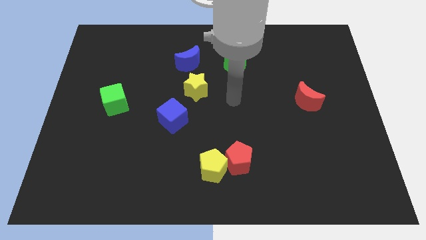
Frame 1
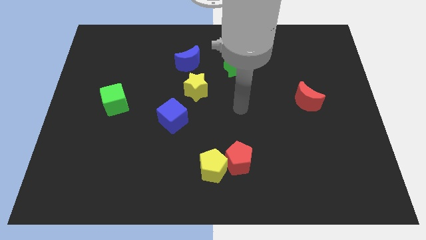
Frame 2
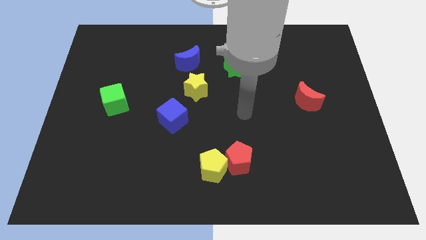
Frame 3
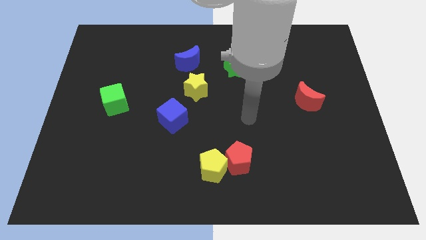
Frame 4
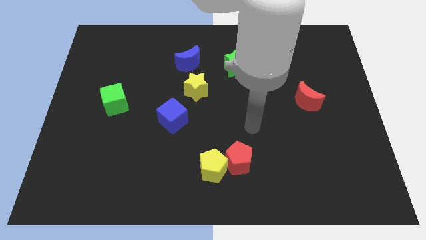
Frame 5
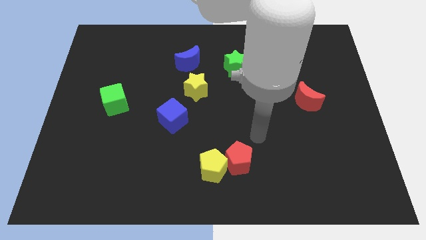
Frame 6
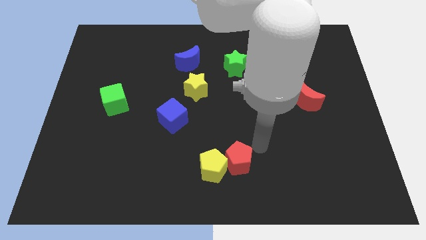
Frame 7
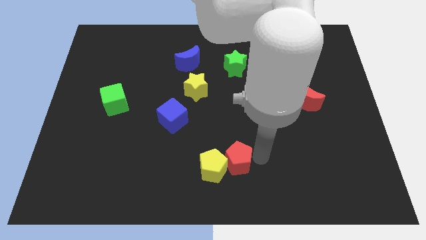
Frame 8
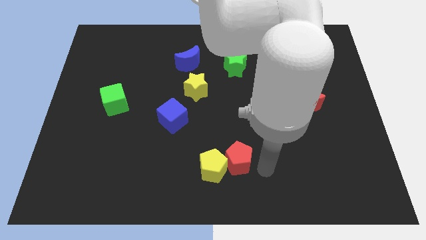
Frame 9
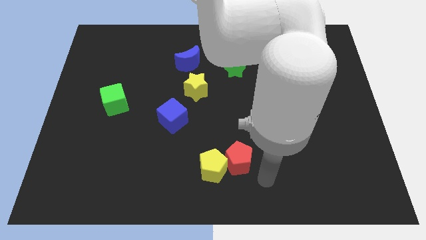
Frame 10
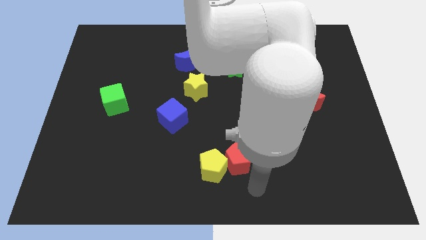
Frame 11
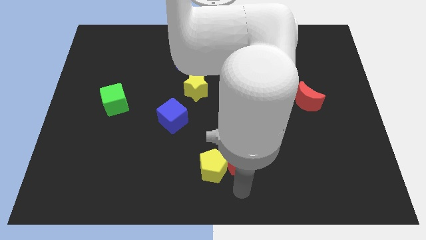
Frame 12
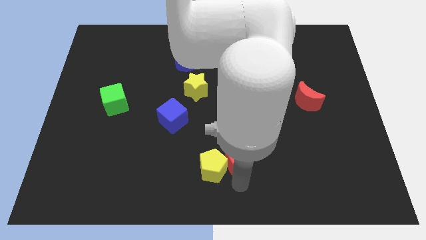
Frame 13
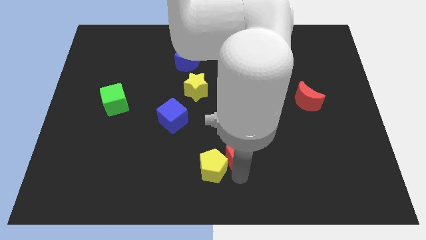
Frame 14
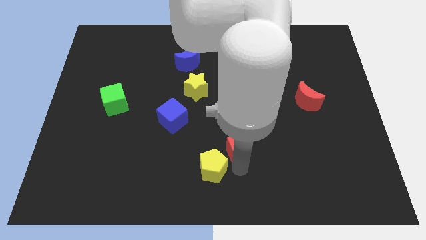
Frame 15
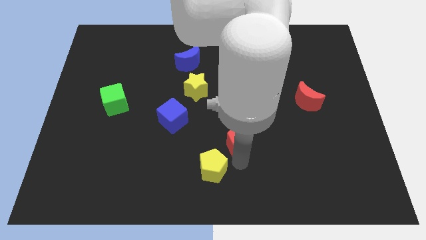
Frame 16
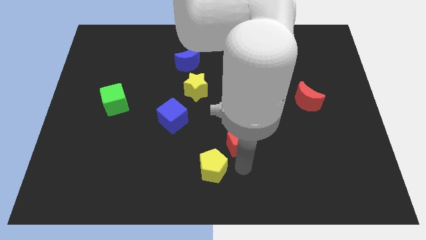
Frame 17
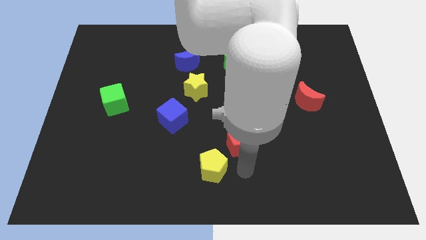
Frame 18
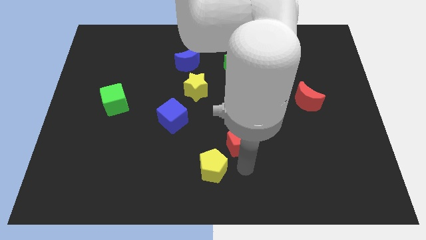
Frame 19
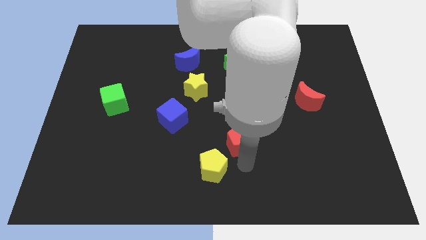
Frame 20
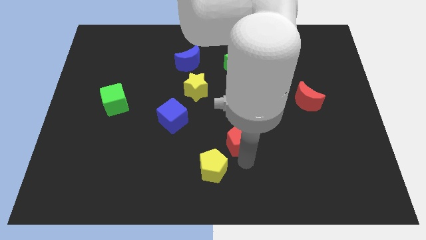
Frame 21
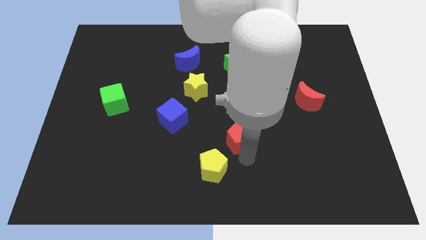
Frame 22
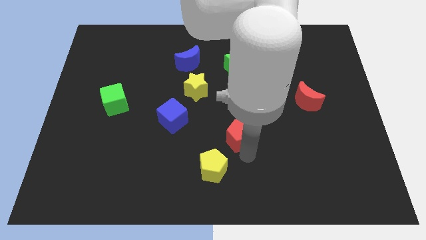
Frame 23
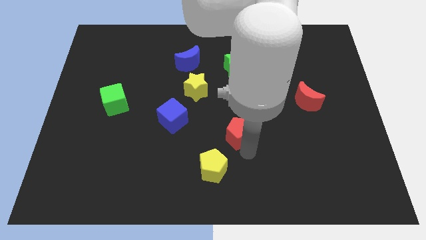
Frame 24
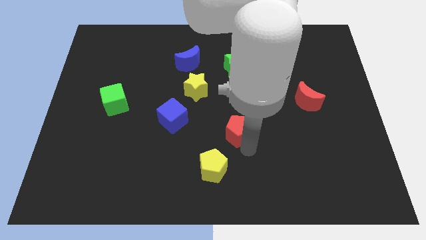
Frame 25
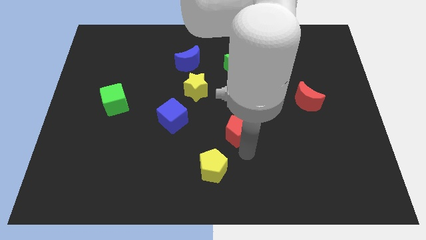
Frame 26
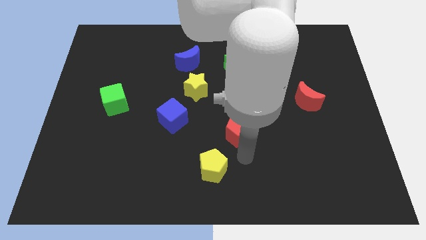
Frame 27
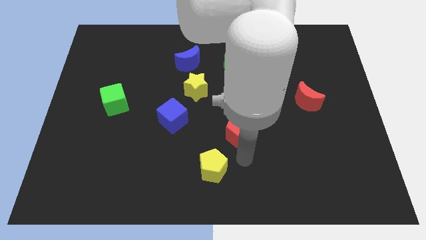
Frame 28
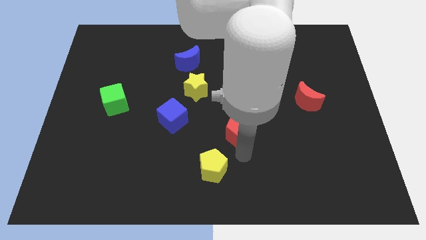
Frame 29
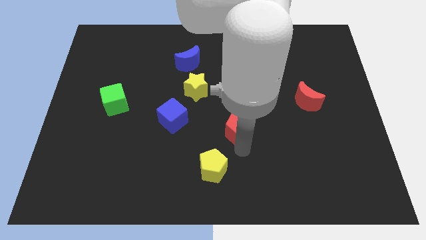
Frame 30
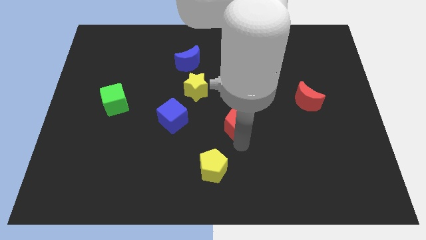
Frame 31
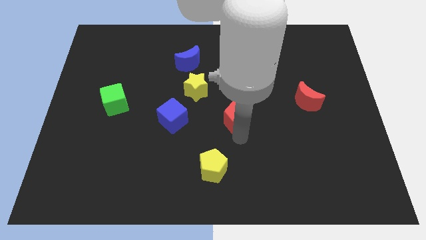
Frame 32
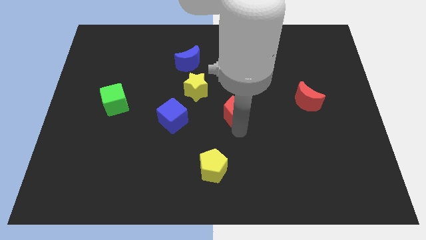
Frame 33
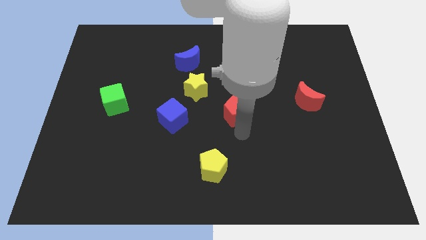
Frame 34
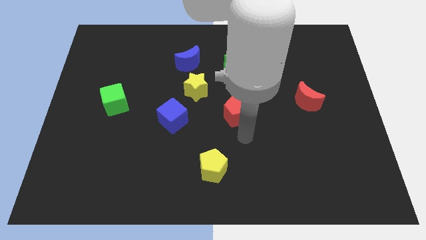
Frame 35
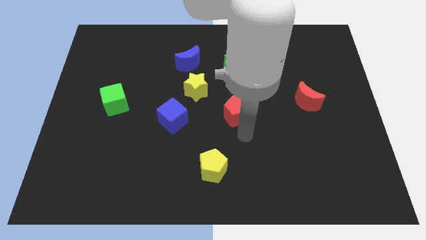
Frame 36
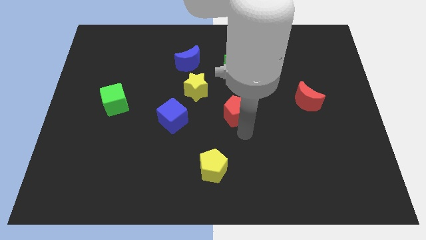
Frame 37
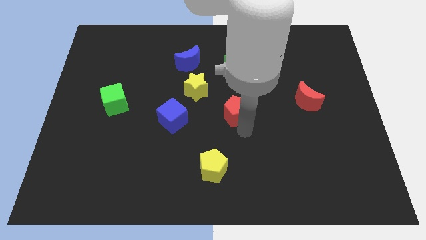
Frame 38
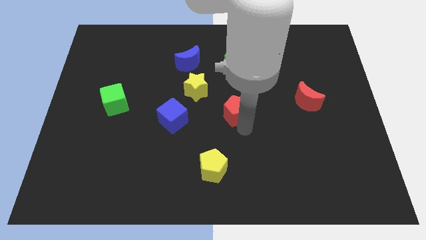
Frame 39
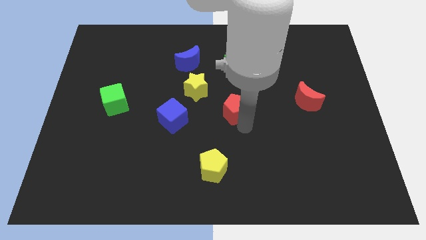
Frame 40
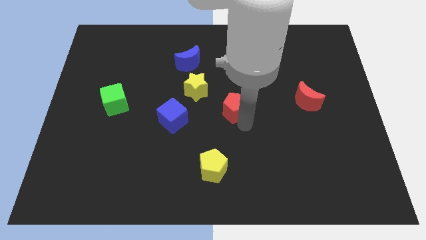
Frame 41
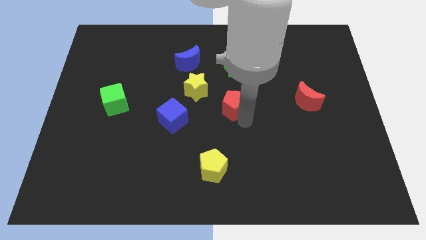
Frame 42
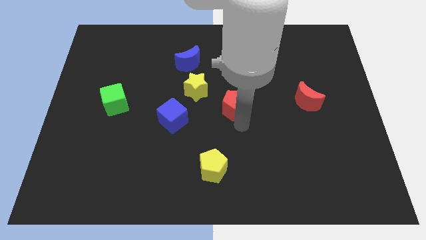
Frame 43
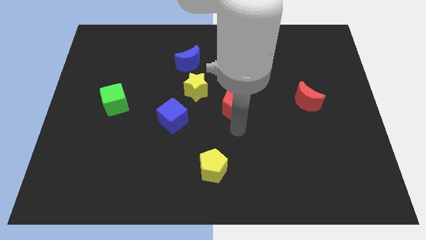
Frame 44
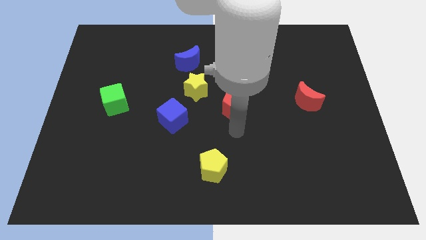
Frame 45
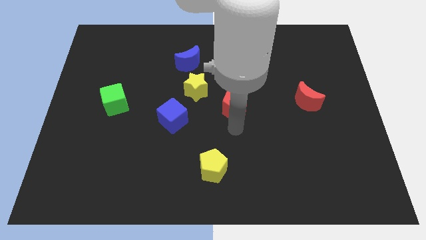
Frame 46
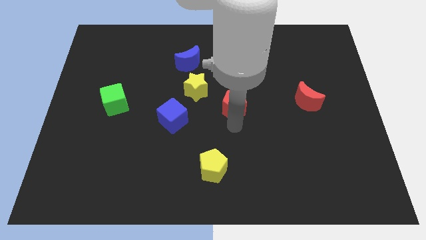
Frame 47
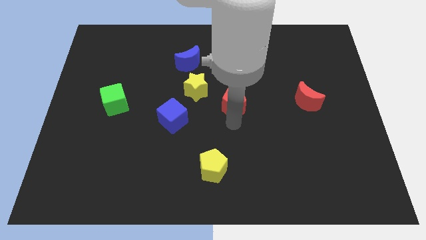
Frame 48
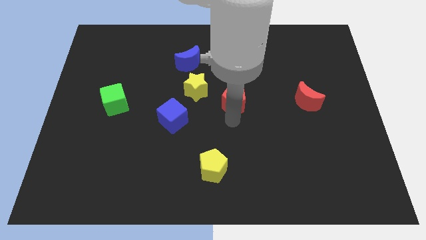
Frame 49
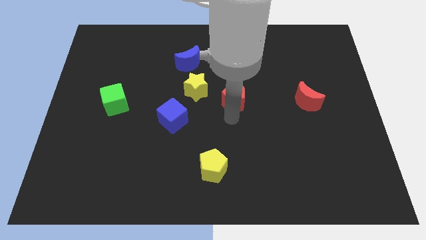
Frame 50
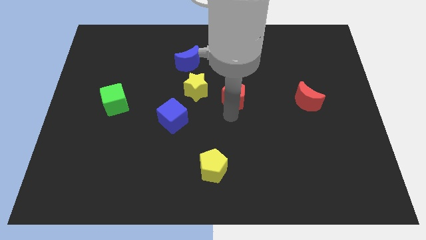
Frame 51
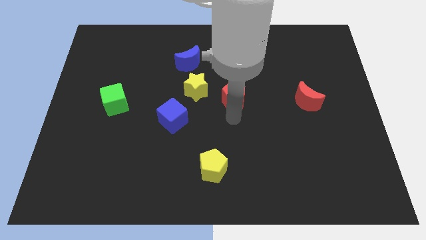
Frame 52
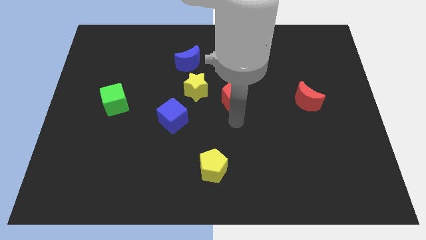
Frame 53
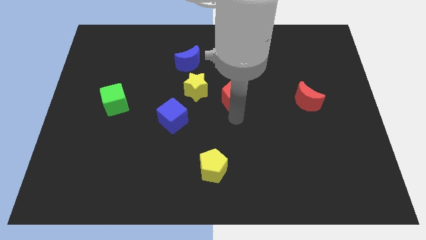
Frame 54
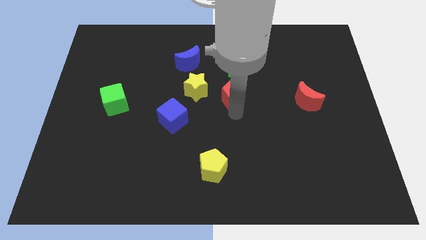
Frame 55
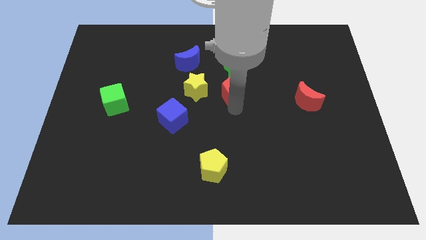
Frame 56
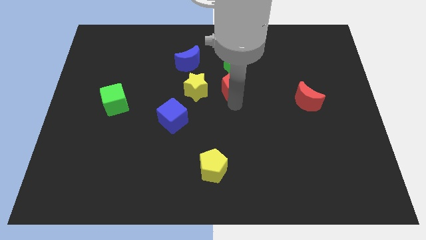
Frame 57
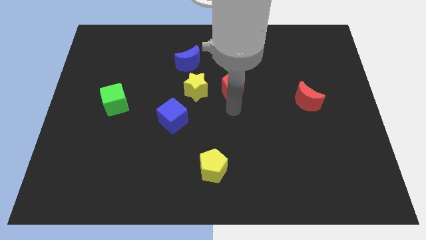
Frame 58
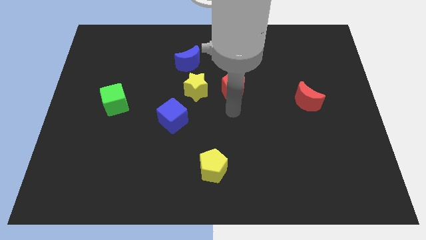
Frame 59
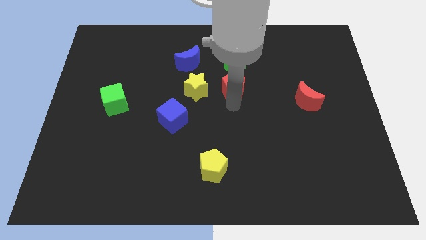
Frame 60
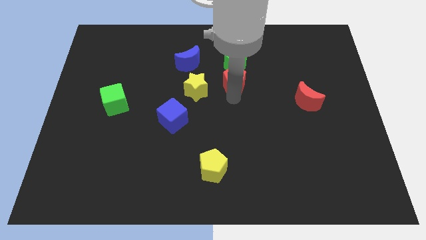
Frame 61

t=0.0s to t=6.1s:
put the red pentagon towards the green star

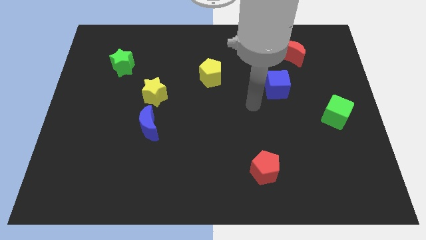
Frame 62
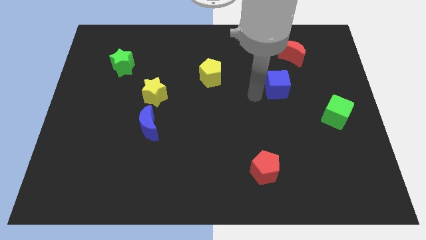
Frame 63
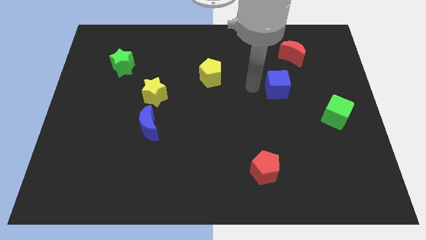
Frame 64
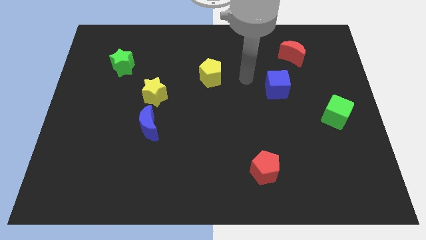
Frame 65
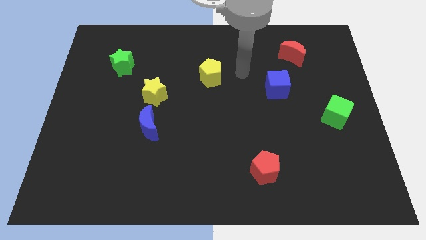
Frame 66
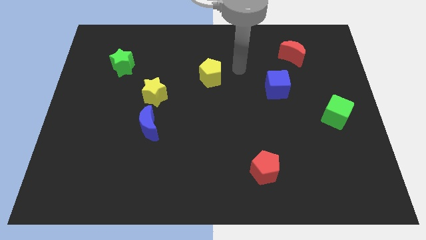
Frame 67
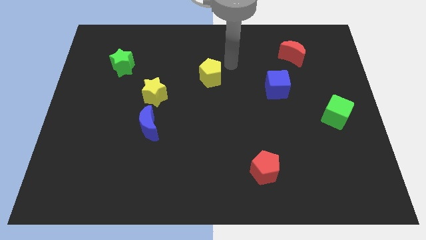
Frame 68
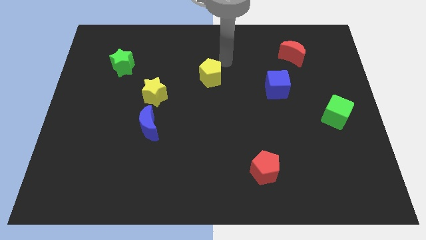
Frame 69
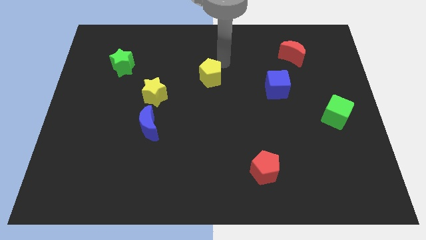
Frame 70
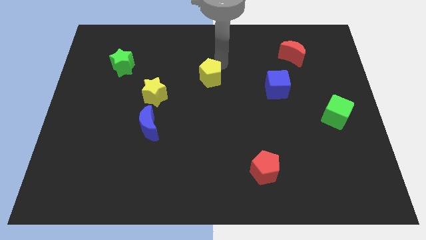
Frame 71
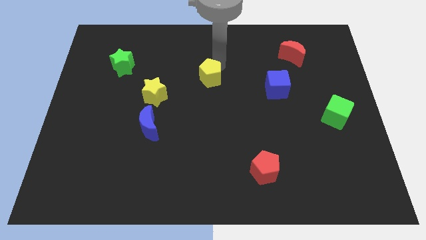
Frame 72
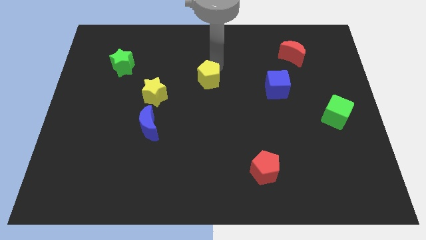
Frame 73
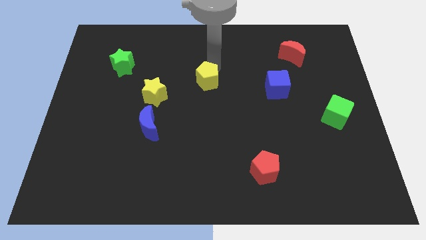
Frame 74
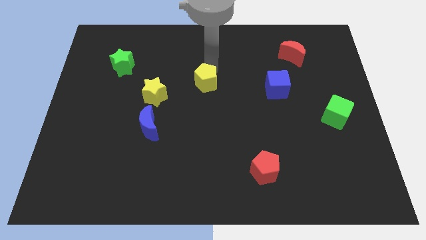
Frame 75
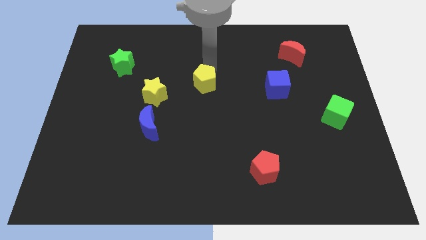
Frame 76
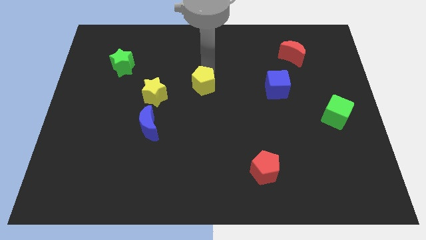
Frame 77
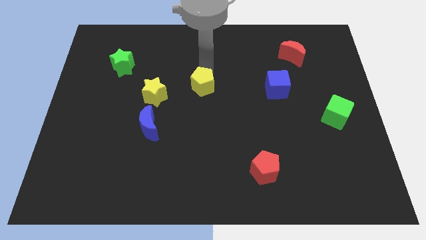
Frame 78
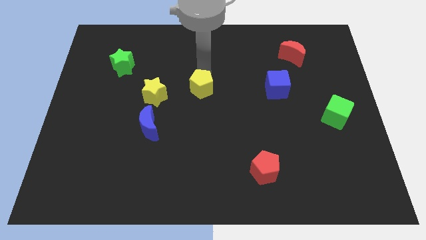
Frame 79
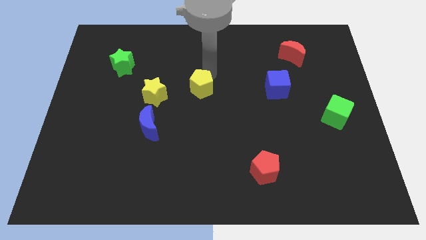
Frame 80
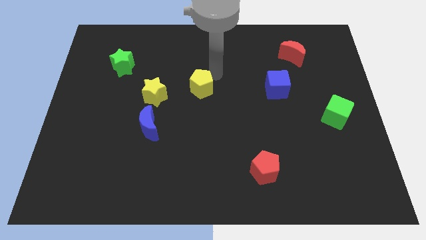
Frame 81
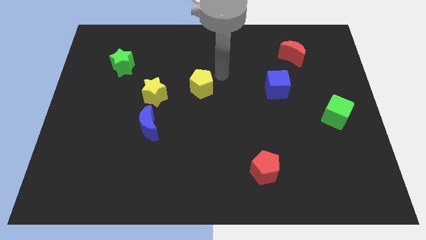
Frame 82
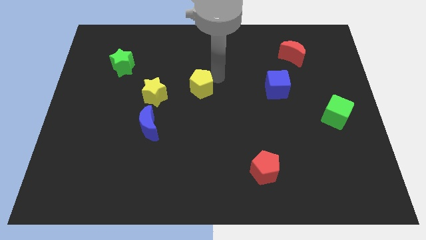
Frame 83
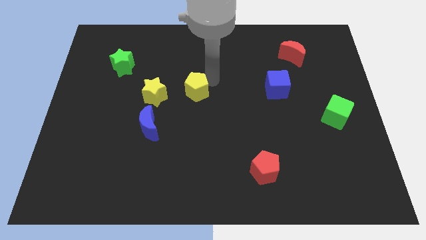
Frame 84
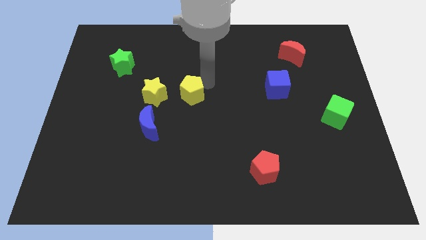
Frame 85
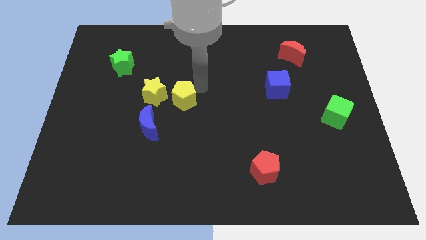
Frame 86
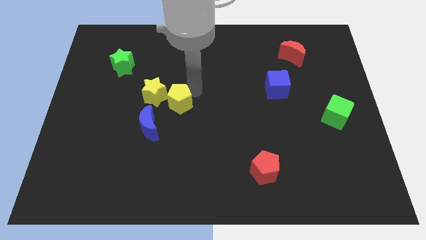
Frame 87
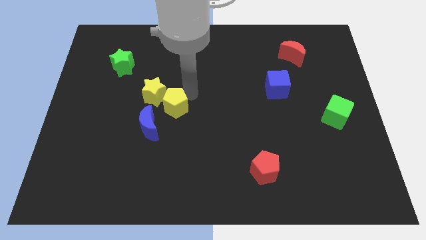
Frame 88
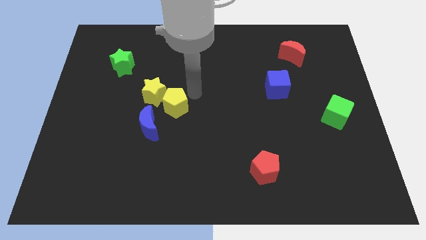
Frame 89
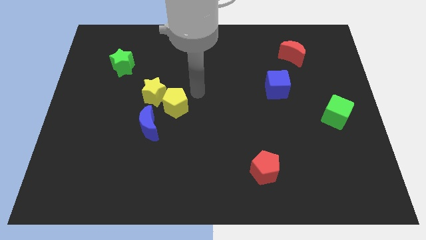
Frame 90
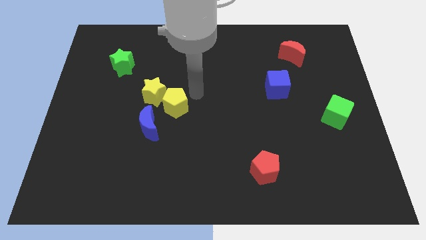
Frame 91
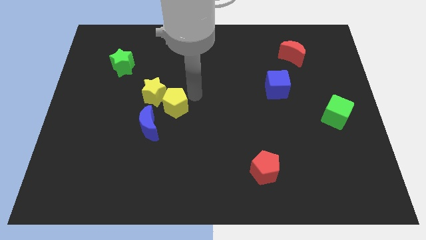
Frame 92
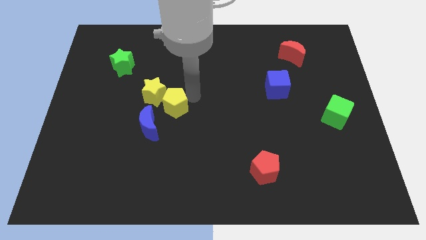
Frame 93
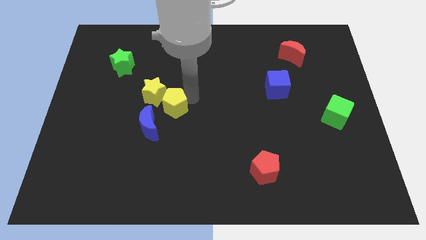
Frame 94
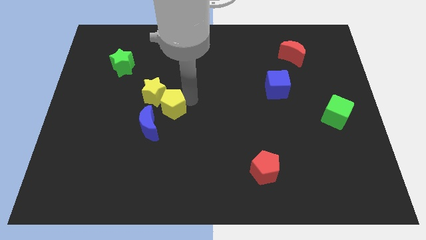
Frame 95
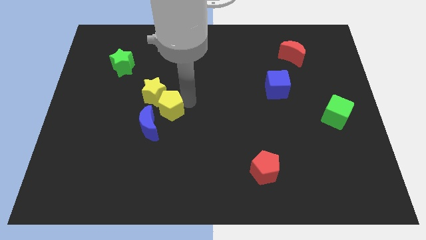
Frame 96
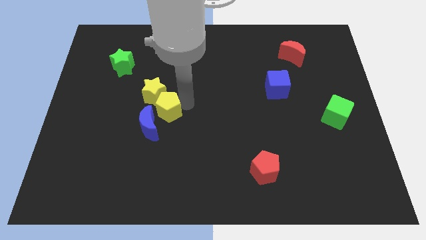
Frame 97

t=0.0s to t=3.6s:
slide the yellow pentagon towards the blue moon
